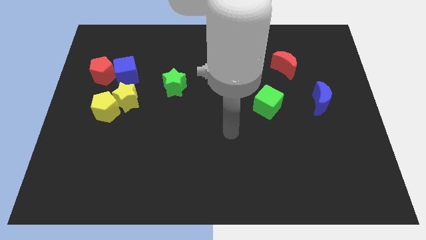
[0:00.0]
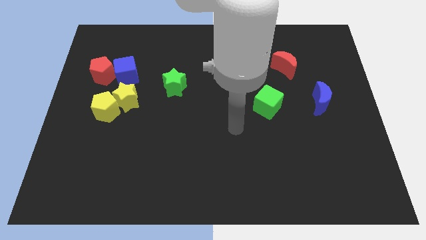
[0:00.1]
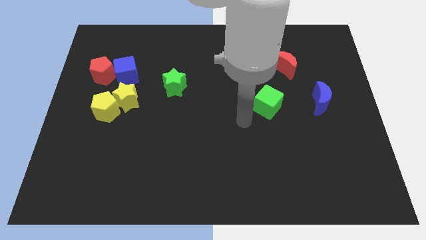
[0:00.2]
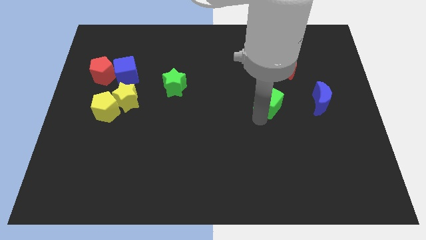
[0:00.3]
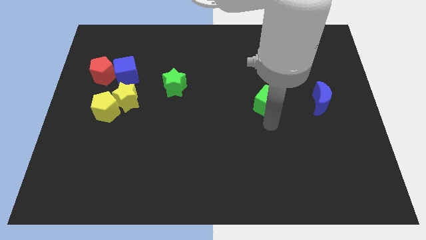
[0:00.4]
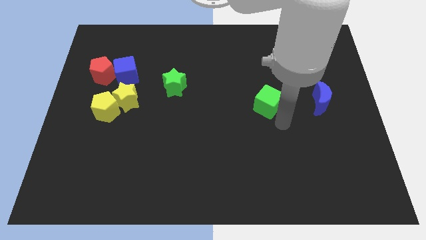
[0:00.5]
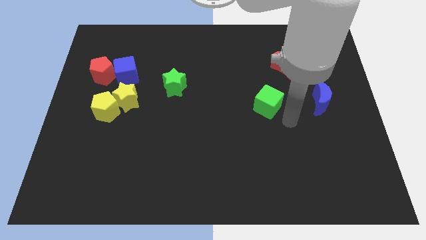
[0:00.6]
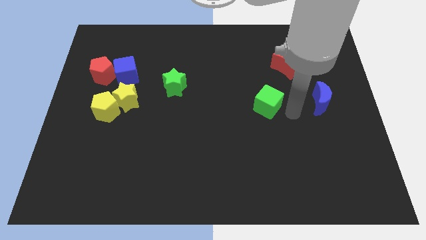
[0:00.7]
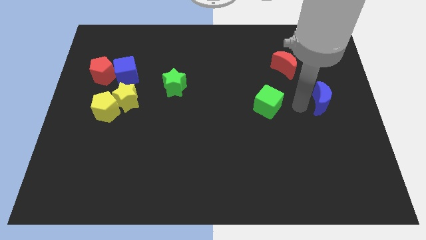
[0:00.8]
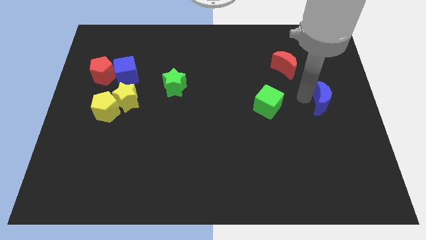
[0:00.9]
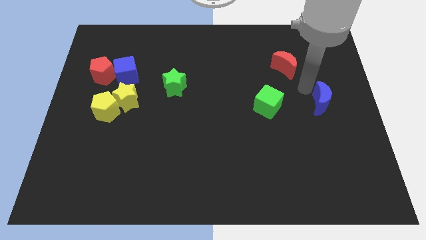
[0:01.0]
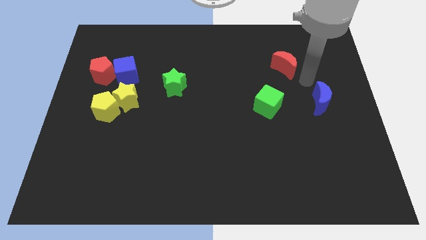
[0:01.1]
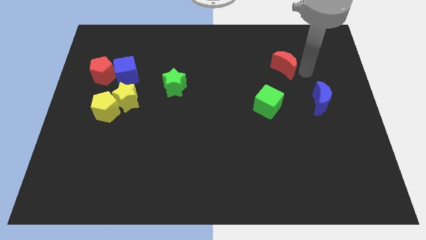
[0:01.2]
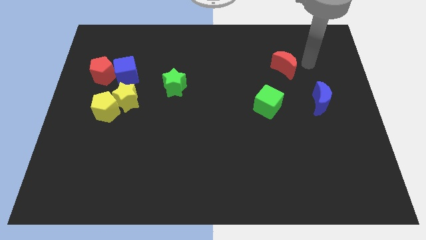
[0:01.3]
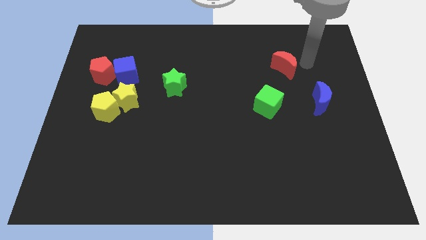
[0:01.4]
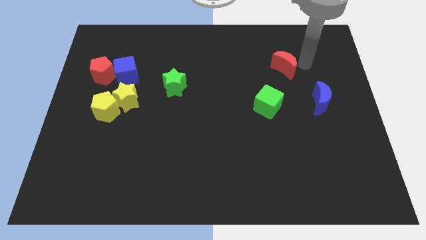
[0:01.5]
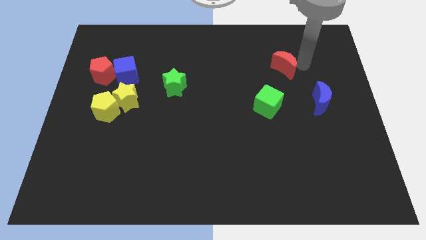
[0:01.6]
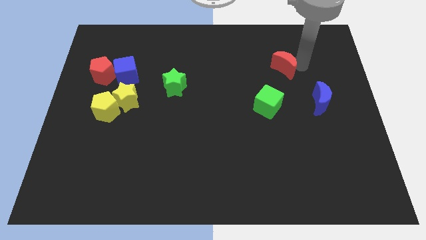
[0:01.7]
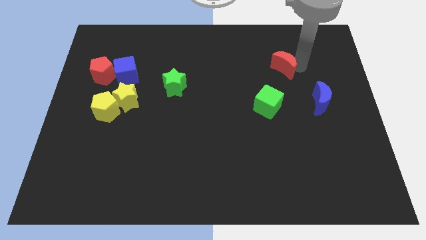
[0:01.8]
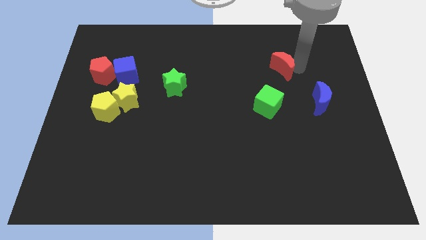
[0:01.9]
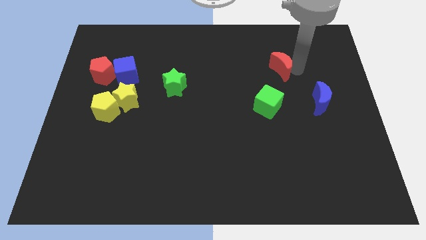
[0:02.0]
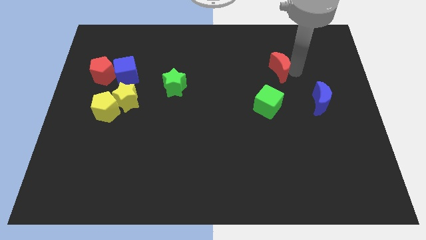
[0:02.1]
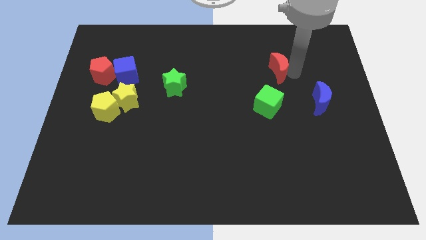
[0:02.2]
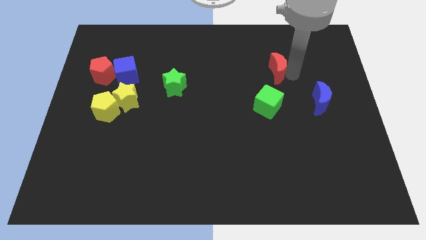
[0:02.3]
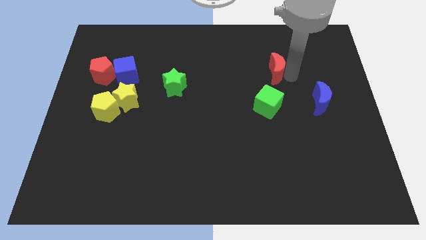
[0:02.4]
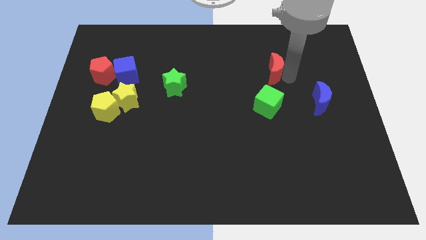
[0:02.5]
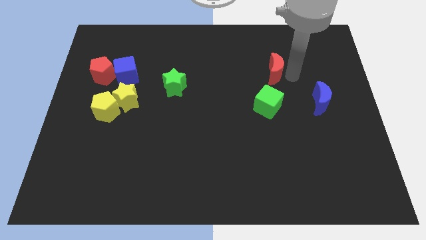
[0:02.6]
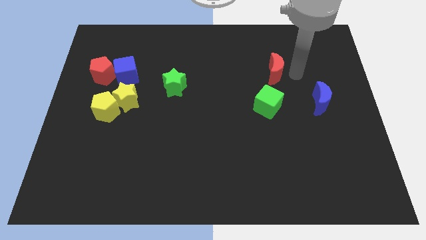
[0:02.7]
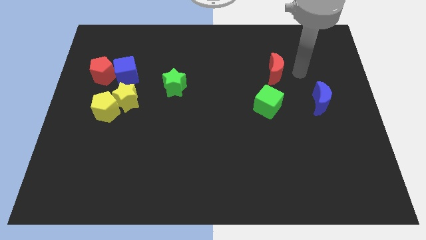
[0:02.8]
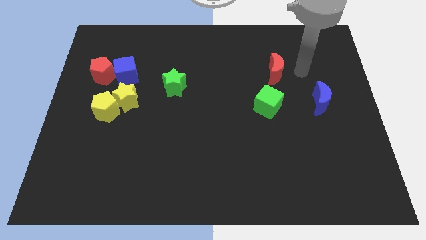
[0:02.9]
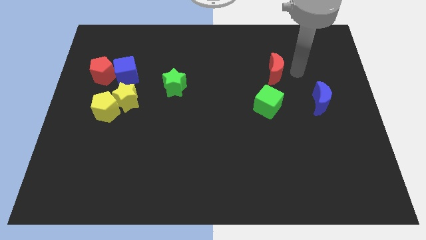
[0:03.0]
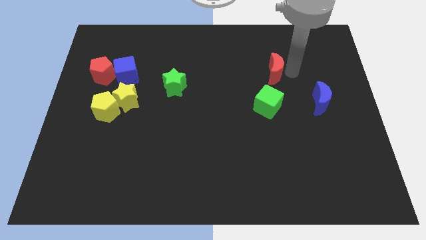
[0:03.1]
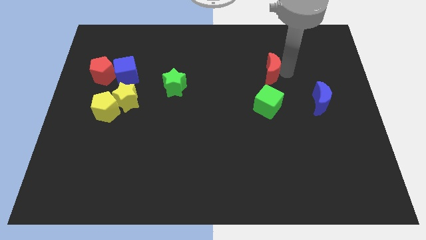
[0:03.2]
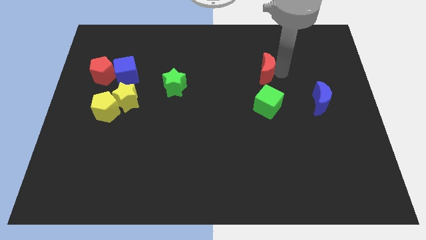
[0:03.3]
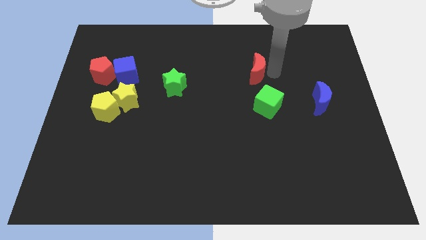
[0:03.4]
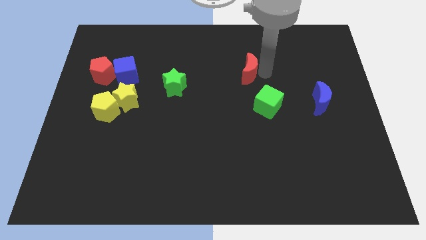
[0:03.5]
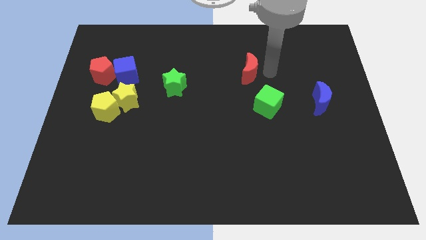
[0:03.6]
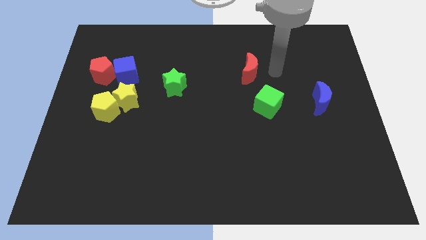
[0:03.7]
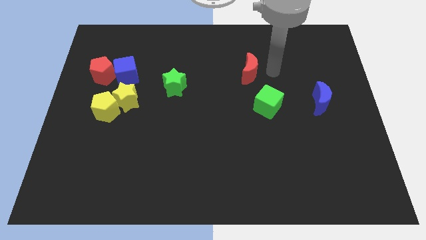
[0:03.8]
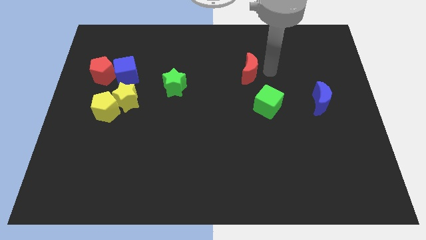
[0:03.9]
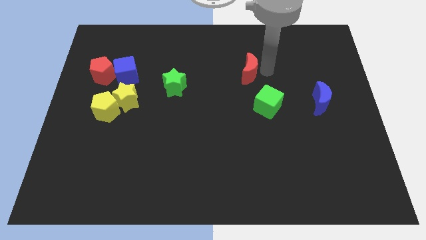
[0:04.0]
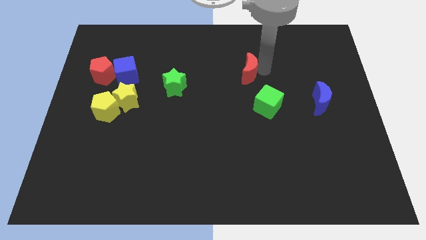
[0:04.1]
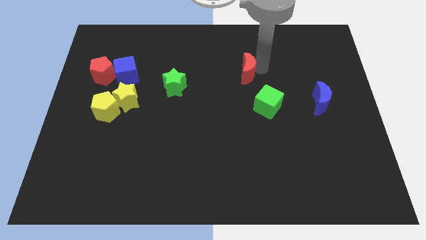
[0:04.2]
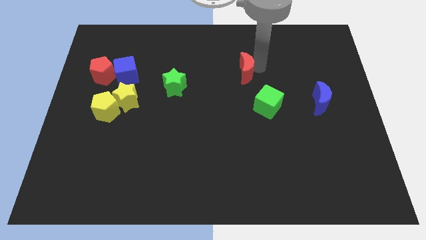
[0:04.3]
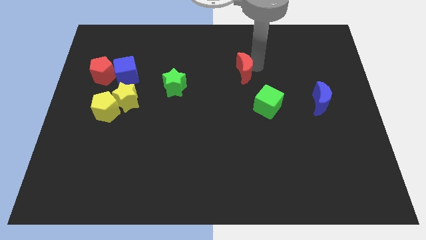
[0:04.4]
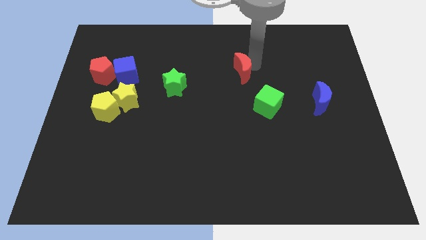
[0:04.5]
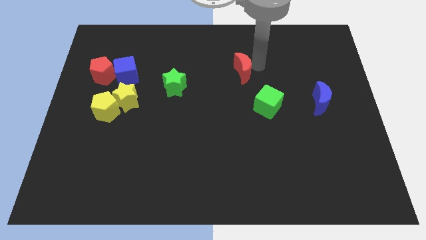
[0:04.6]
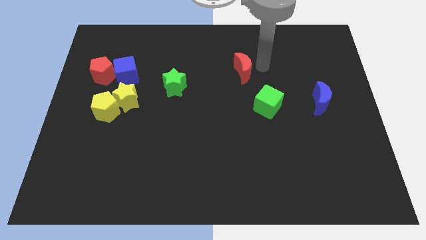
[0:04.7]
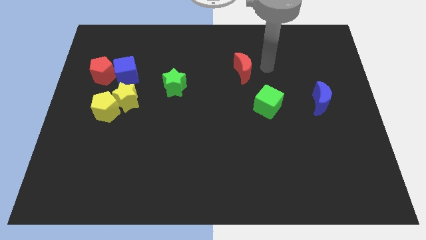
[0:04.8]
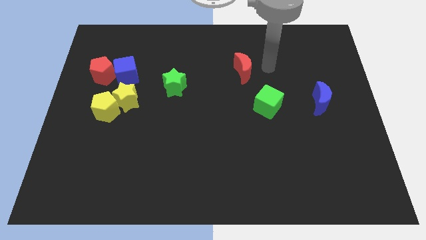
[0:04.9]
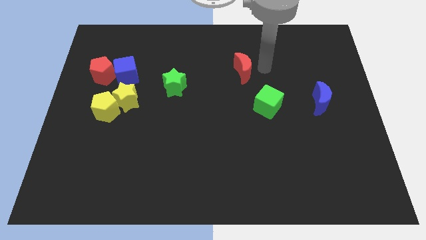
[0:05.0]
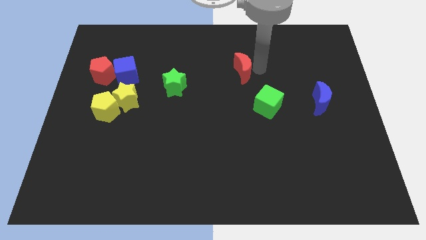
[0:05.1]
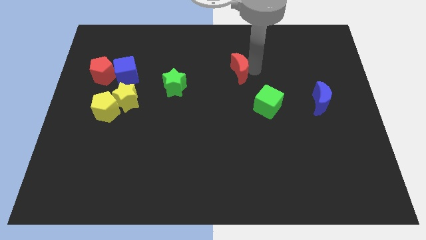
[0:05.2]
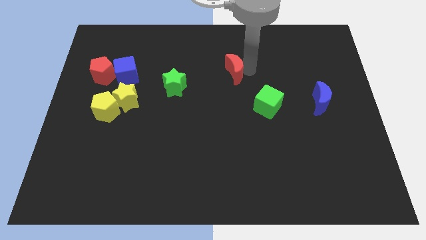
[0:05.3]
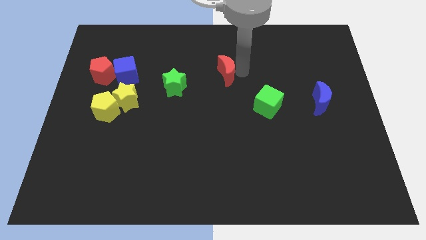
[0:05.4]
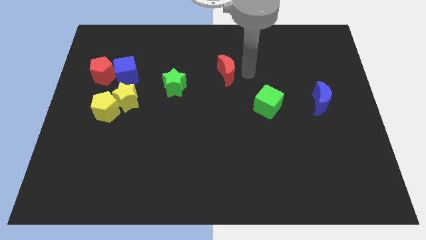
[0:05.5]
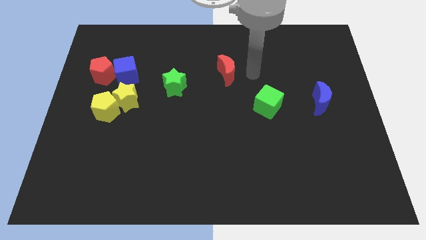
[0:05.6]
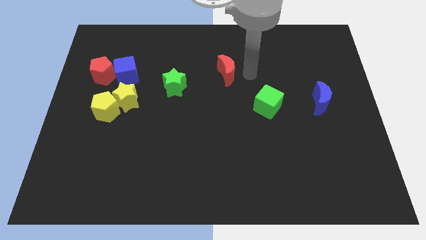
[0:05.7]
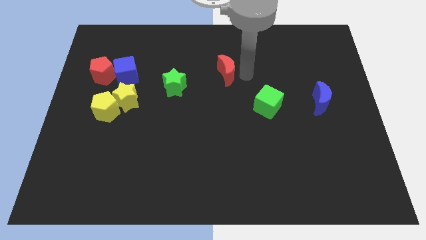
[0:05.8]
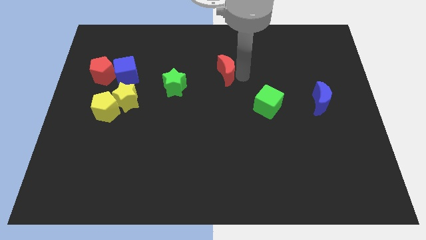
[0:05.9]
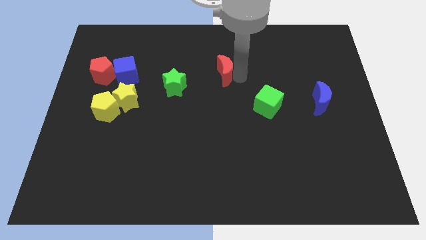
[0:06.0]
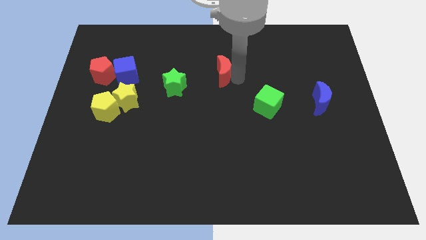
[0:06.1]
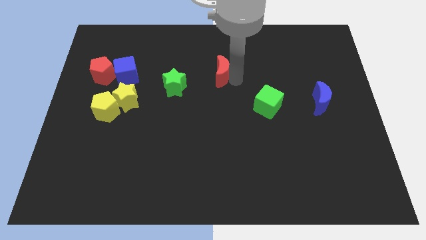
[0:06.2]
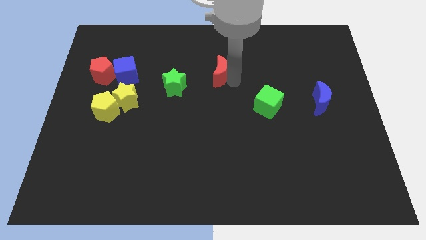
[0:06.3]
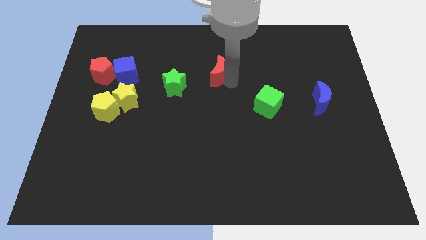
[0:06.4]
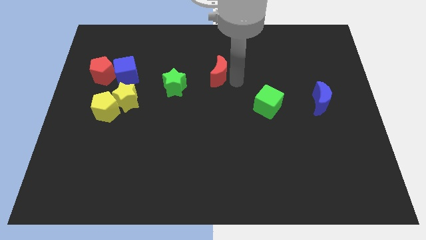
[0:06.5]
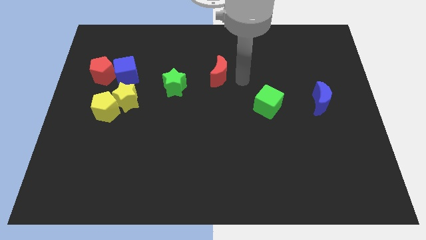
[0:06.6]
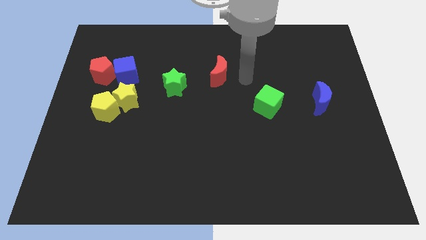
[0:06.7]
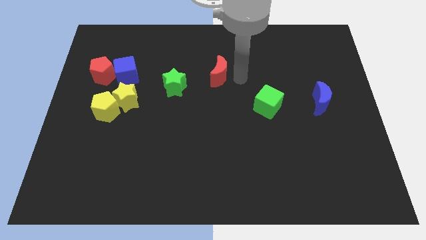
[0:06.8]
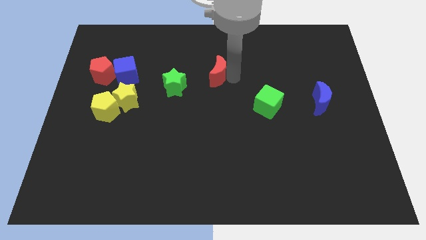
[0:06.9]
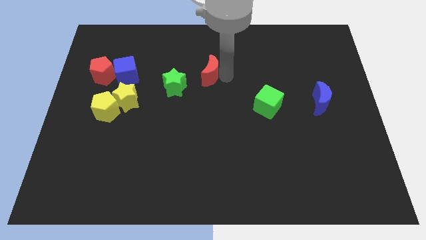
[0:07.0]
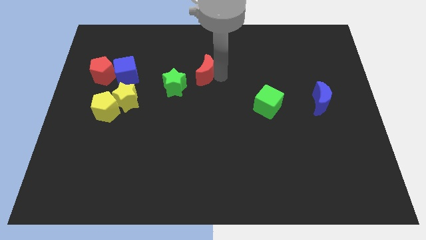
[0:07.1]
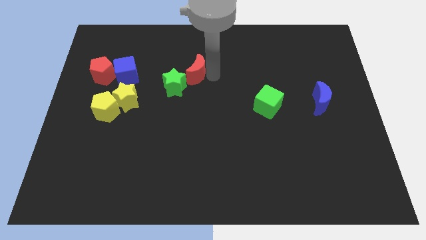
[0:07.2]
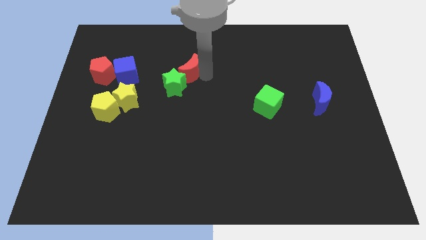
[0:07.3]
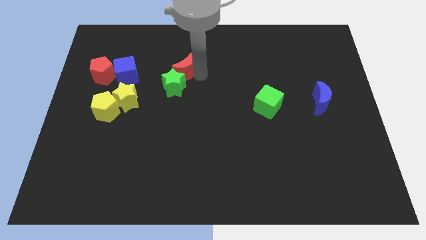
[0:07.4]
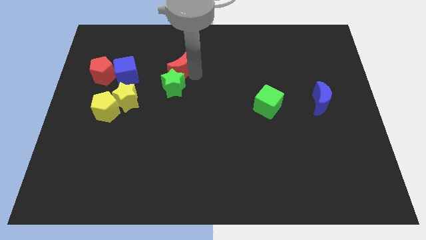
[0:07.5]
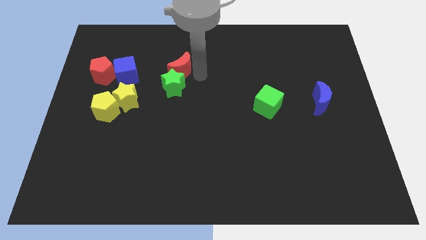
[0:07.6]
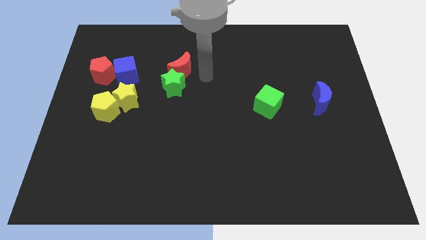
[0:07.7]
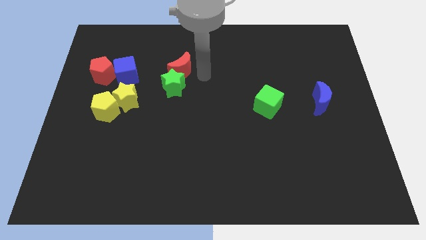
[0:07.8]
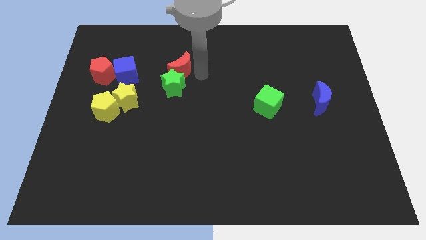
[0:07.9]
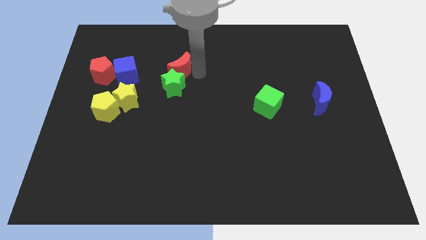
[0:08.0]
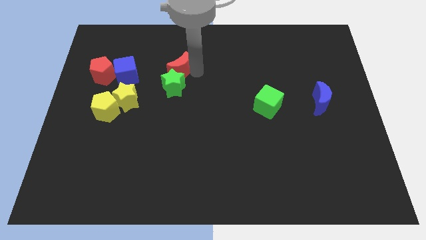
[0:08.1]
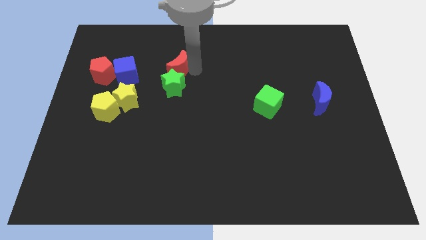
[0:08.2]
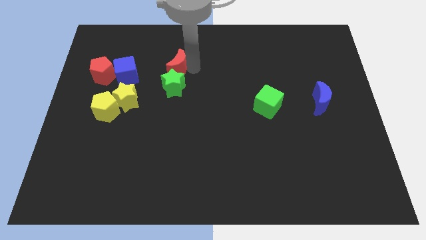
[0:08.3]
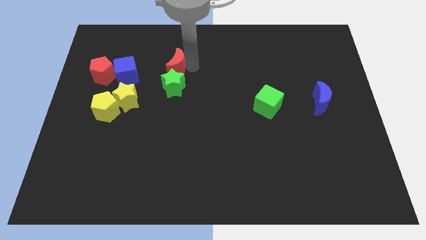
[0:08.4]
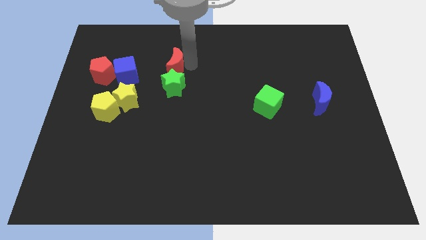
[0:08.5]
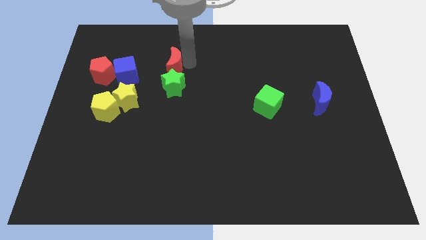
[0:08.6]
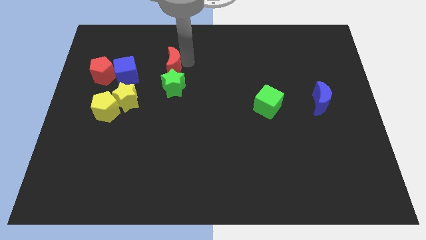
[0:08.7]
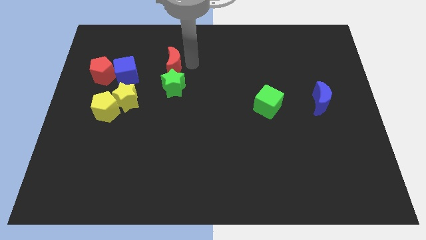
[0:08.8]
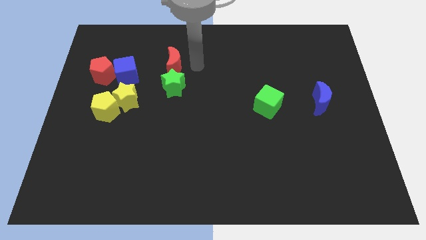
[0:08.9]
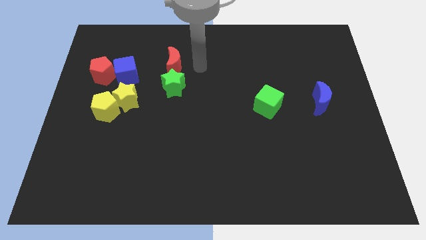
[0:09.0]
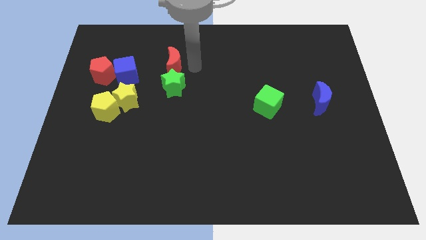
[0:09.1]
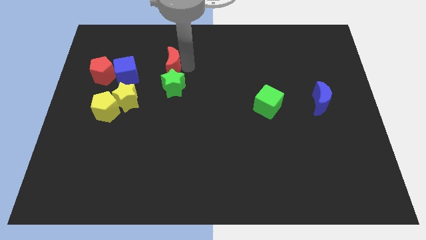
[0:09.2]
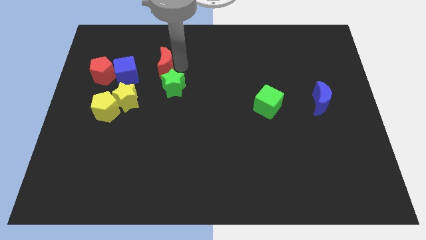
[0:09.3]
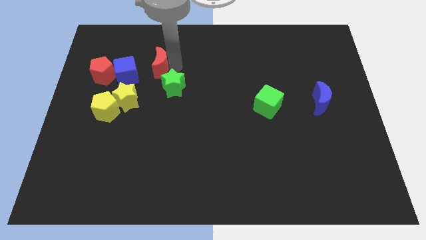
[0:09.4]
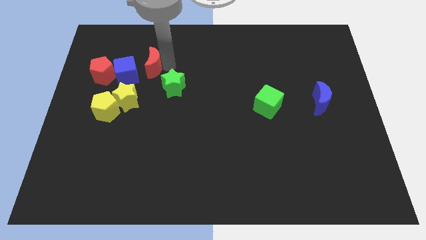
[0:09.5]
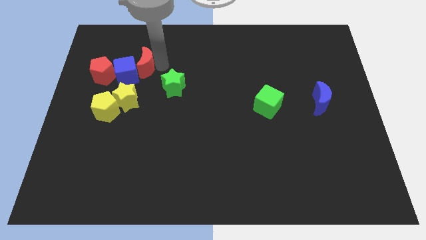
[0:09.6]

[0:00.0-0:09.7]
push the red moon to the top of the yellow star
